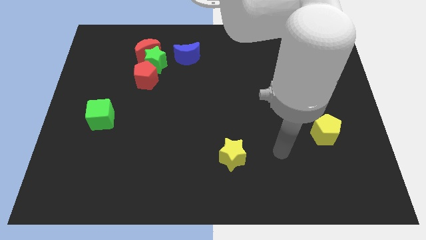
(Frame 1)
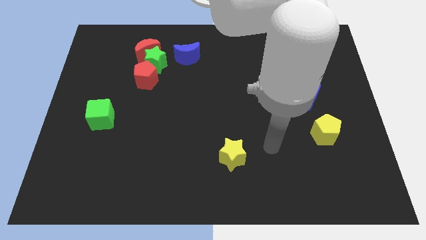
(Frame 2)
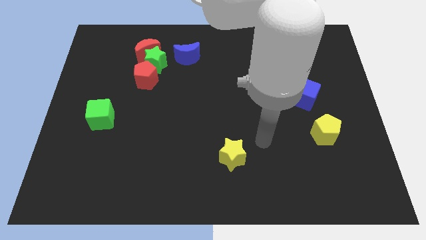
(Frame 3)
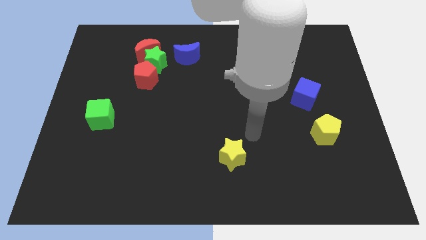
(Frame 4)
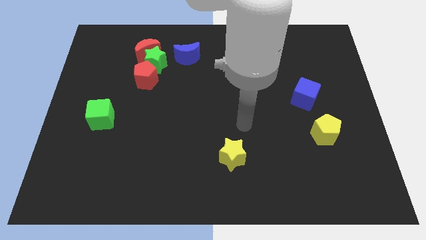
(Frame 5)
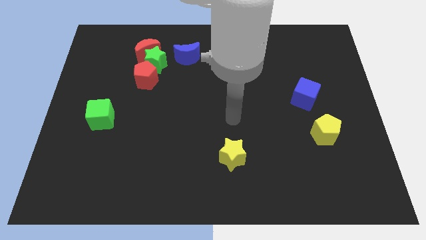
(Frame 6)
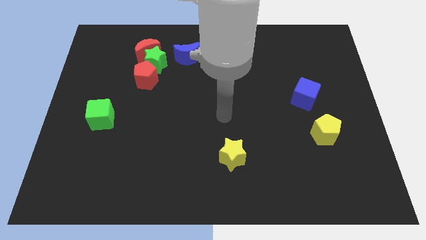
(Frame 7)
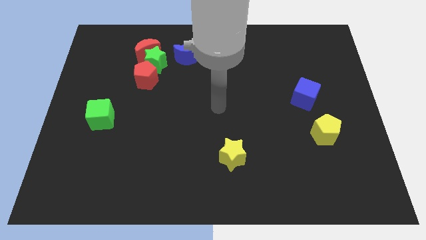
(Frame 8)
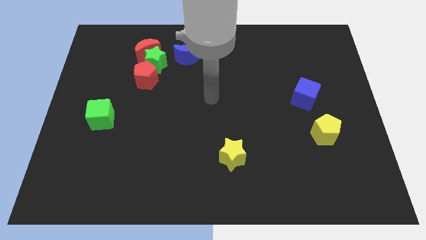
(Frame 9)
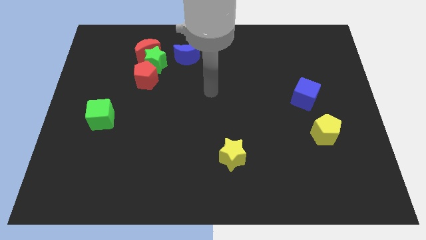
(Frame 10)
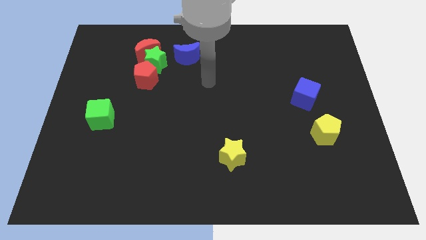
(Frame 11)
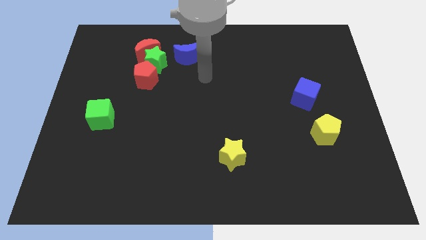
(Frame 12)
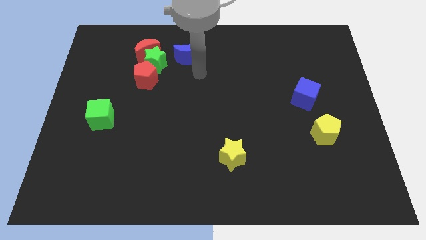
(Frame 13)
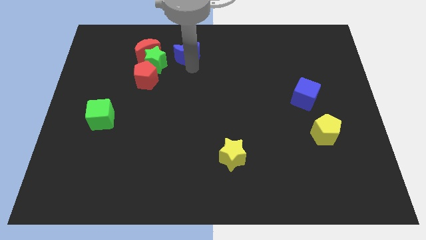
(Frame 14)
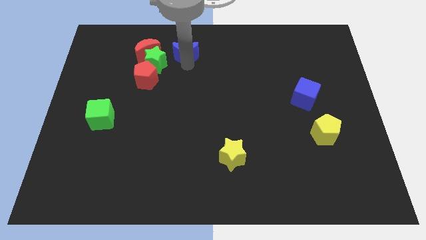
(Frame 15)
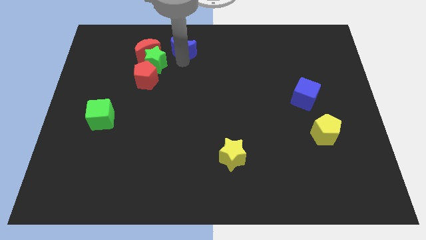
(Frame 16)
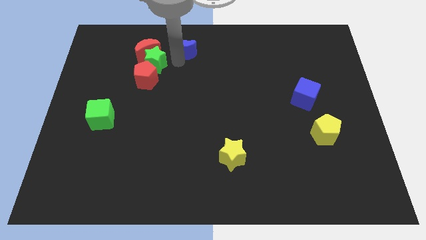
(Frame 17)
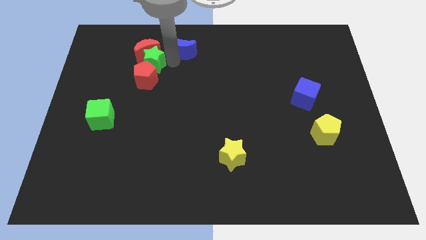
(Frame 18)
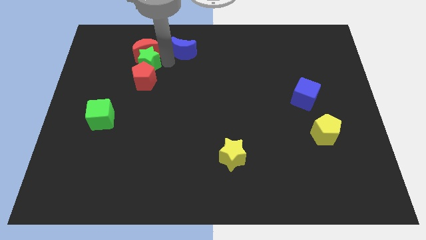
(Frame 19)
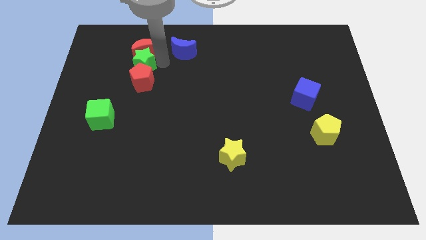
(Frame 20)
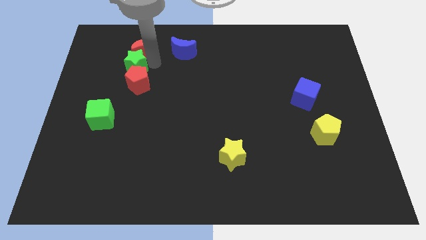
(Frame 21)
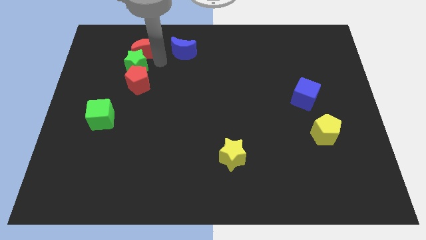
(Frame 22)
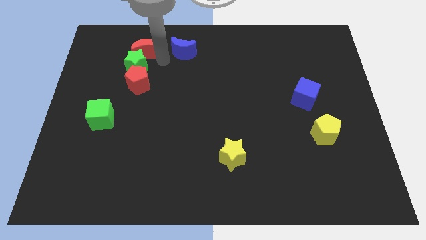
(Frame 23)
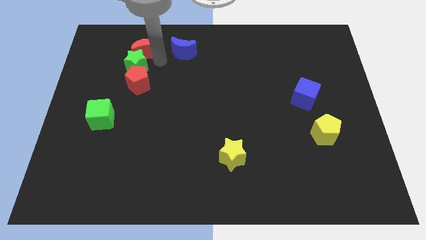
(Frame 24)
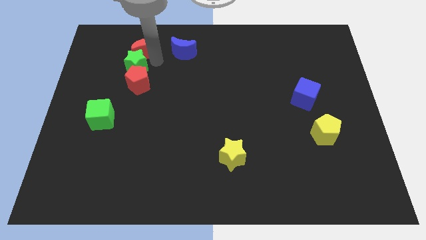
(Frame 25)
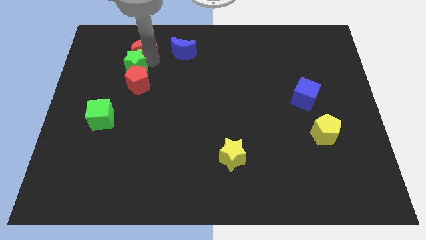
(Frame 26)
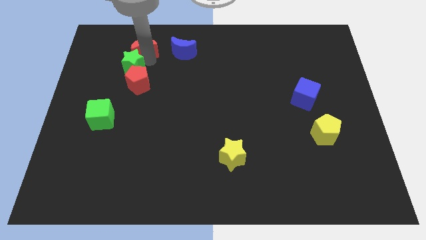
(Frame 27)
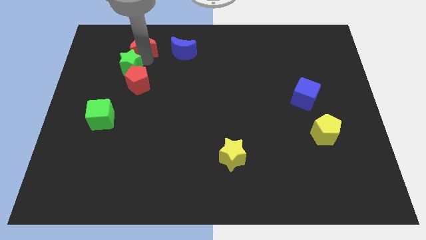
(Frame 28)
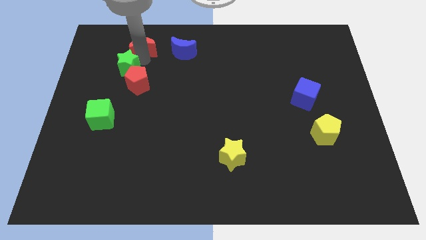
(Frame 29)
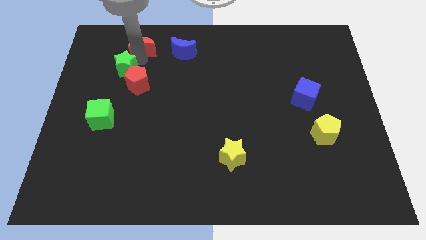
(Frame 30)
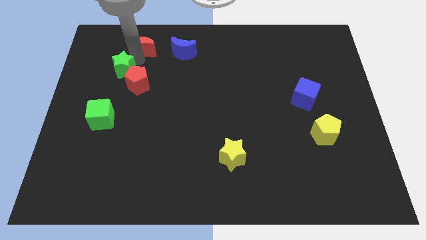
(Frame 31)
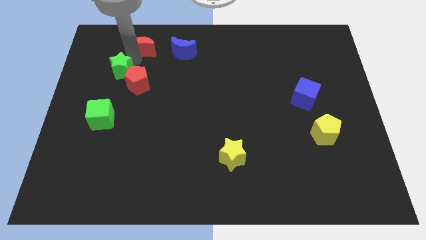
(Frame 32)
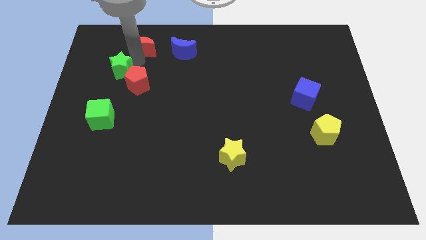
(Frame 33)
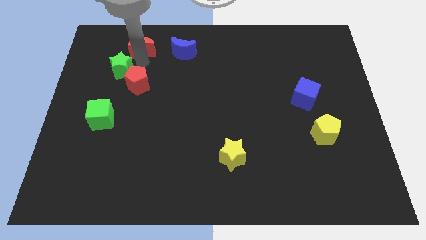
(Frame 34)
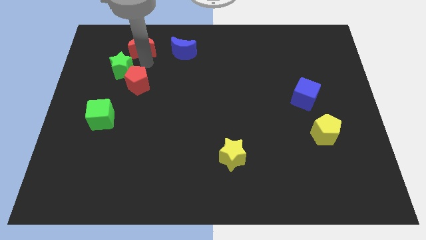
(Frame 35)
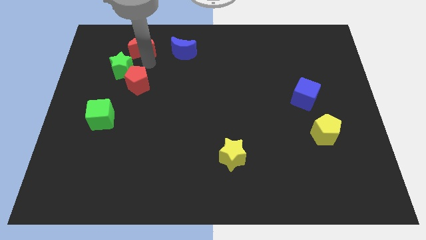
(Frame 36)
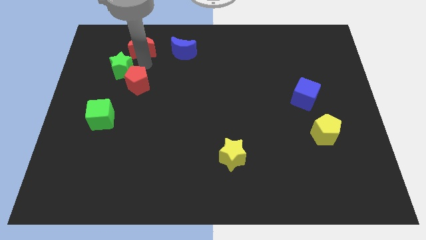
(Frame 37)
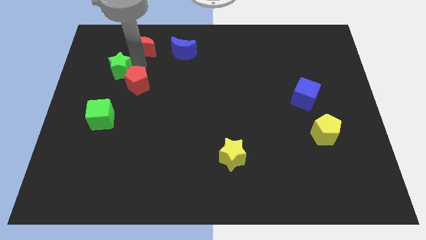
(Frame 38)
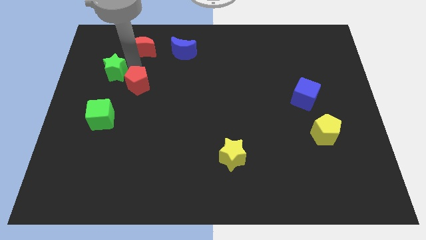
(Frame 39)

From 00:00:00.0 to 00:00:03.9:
move the green star away from the clump

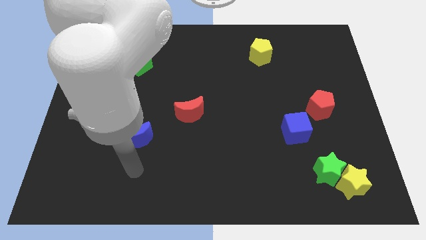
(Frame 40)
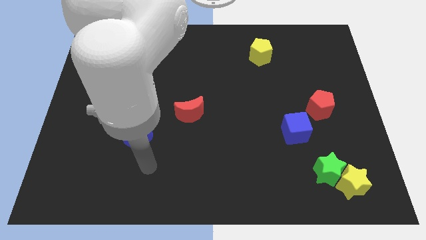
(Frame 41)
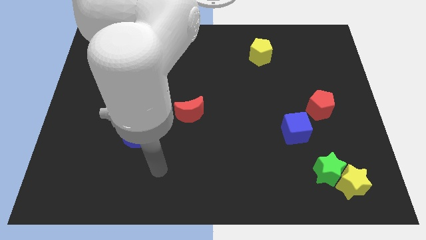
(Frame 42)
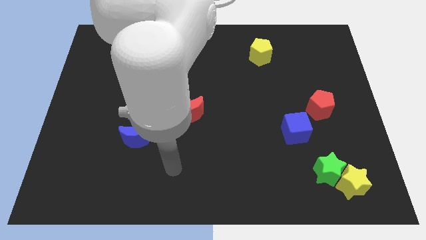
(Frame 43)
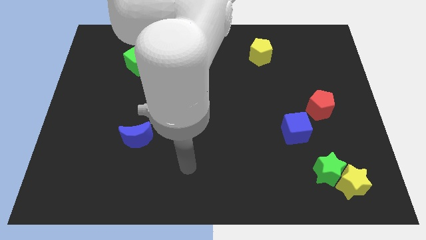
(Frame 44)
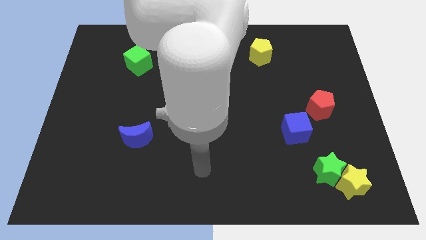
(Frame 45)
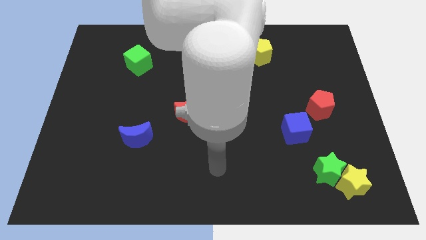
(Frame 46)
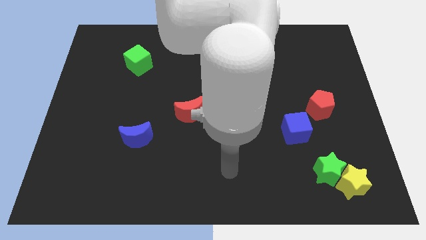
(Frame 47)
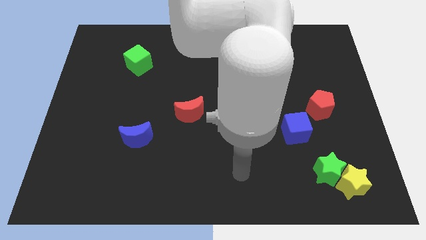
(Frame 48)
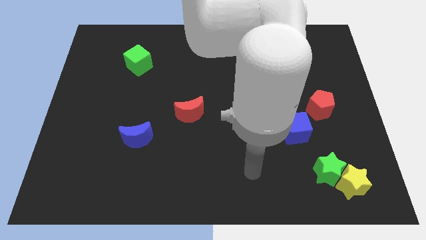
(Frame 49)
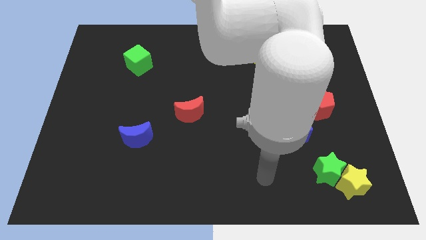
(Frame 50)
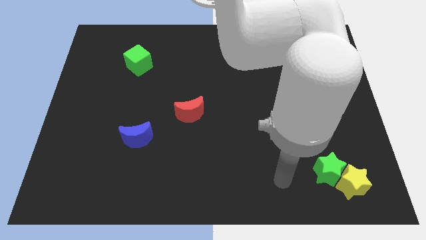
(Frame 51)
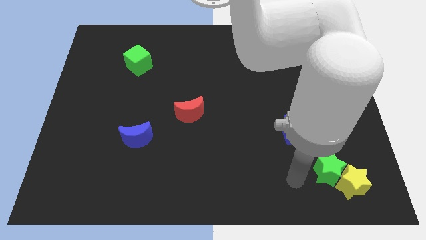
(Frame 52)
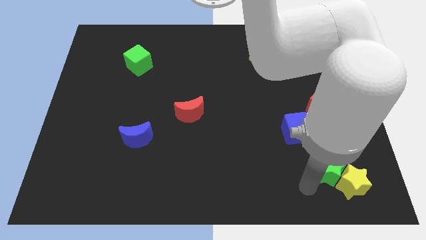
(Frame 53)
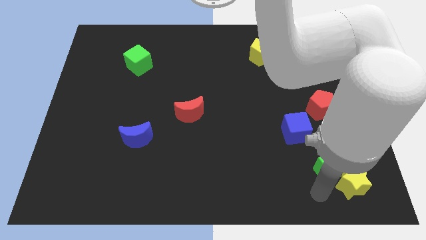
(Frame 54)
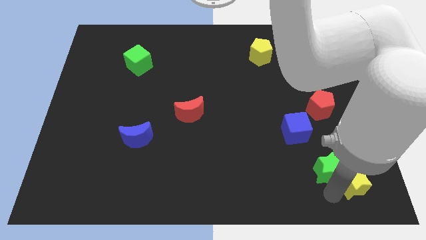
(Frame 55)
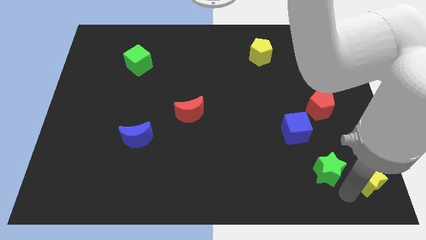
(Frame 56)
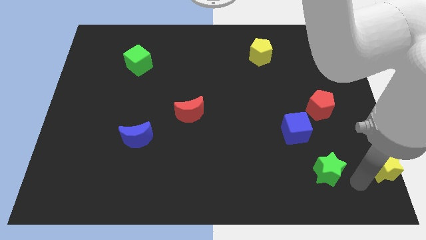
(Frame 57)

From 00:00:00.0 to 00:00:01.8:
move the green star away from the yellow star

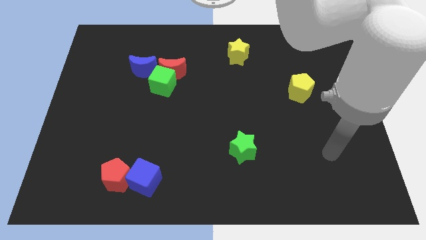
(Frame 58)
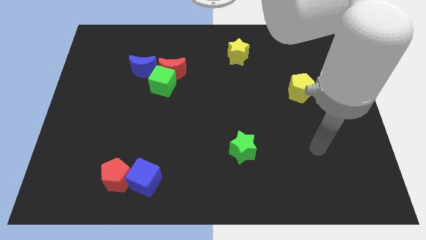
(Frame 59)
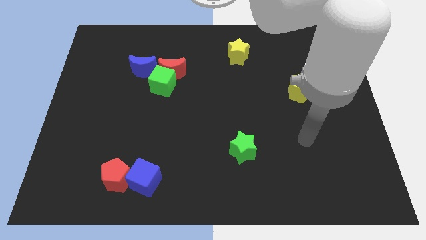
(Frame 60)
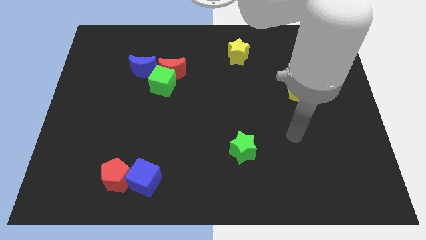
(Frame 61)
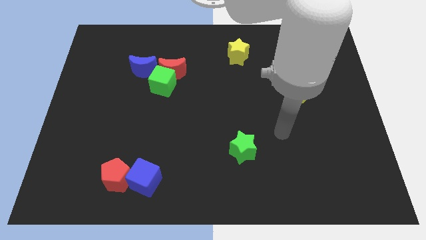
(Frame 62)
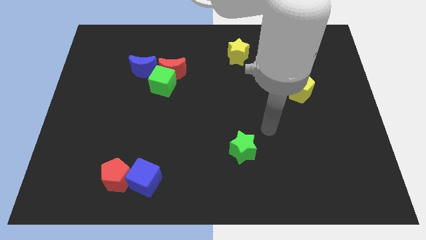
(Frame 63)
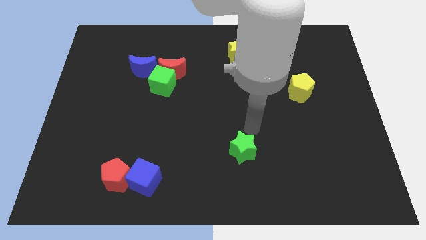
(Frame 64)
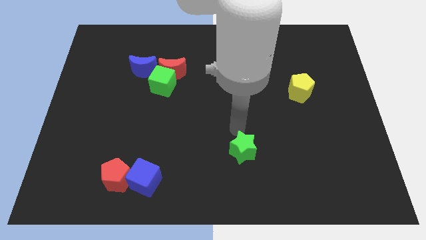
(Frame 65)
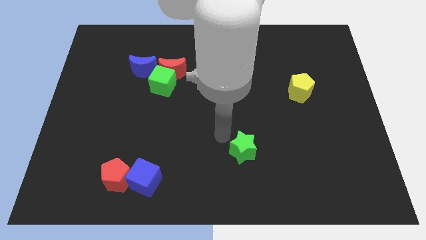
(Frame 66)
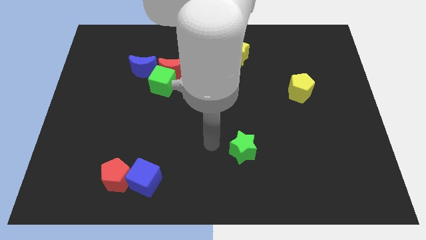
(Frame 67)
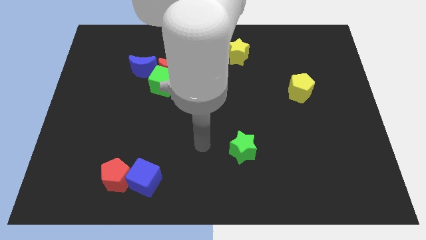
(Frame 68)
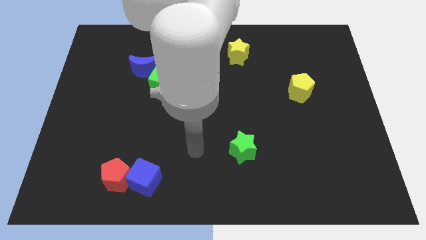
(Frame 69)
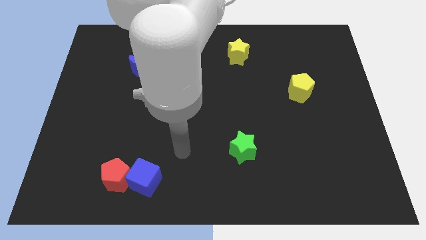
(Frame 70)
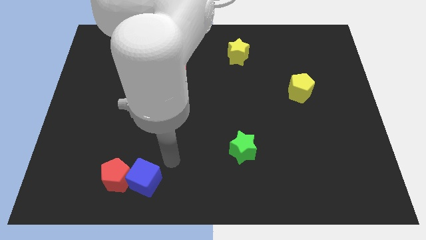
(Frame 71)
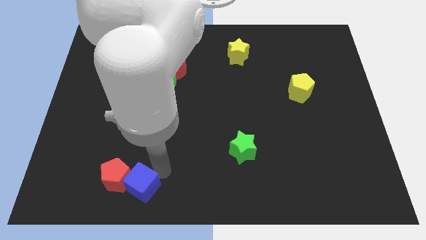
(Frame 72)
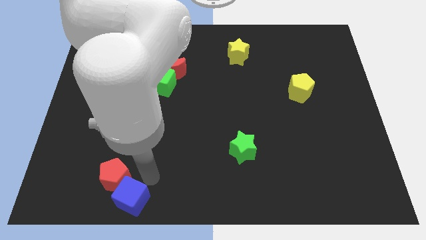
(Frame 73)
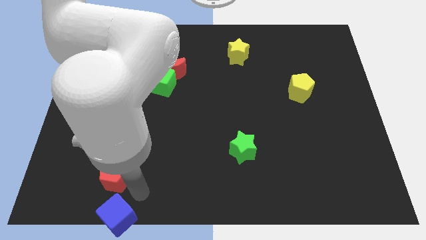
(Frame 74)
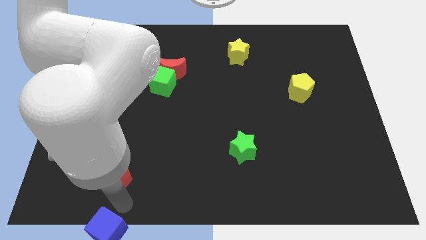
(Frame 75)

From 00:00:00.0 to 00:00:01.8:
separate the red pentagon from the blue cube

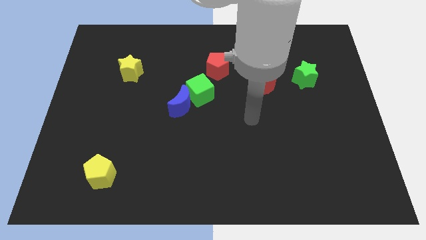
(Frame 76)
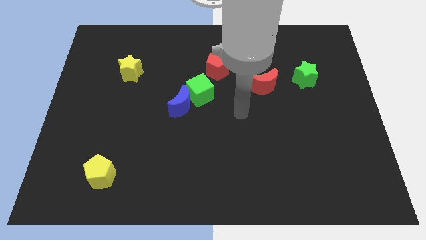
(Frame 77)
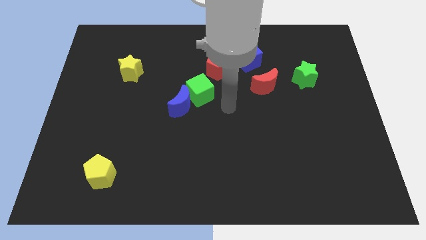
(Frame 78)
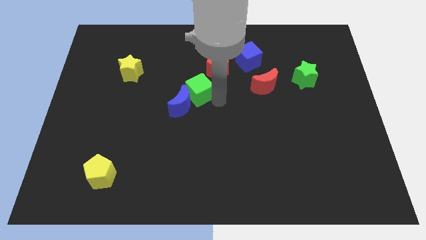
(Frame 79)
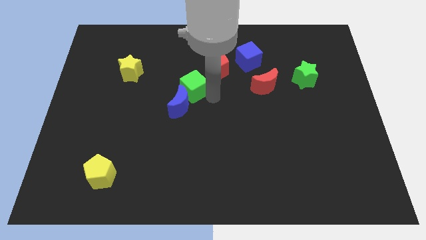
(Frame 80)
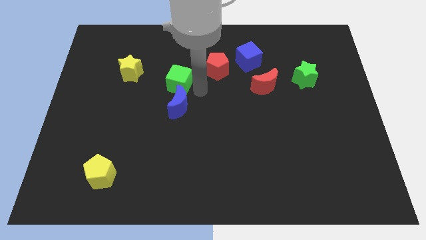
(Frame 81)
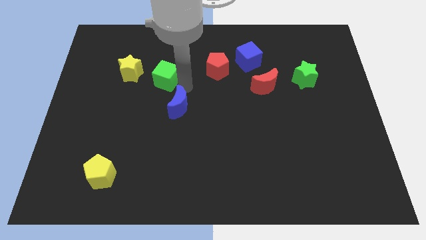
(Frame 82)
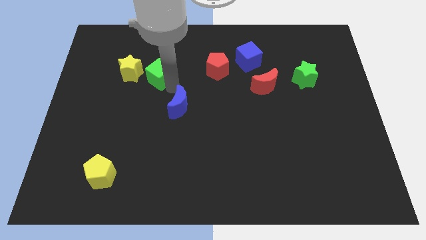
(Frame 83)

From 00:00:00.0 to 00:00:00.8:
separate the blue moon from the green cube

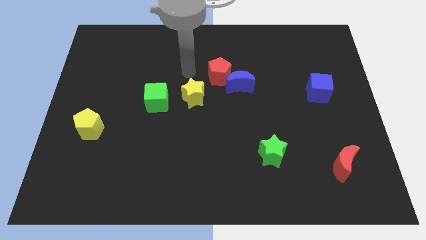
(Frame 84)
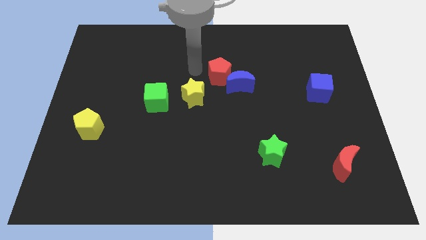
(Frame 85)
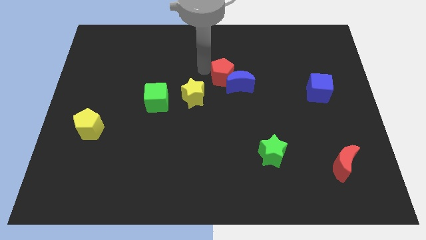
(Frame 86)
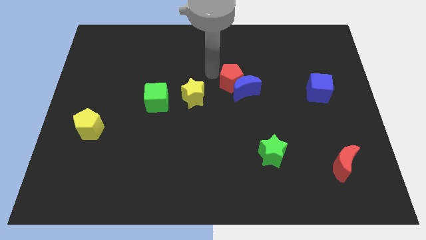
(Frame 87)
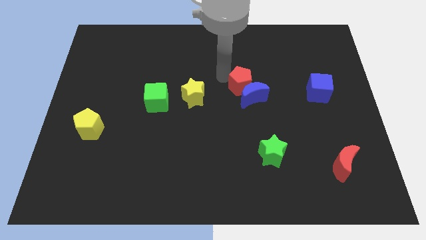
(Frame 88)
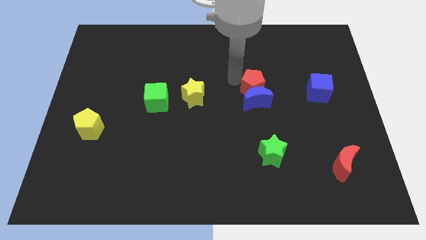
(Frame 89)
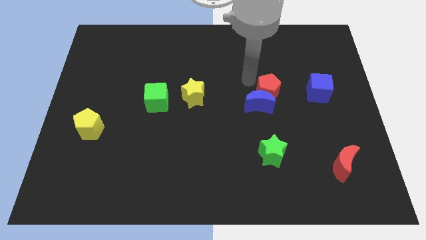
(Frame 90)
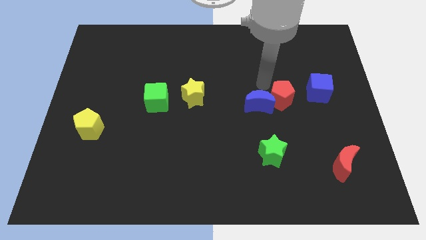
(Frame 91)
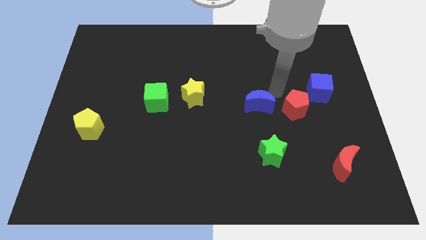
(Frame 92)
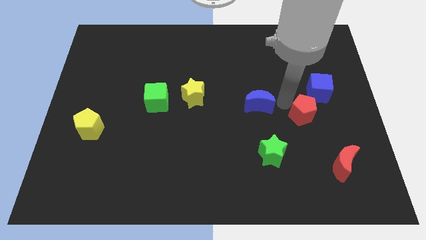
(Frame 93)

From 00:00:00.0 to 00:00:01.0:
pull the blue moon apart from the red pentagon
